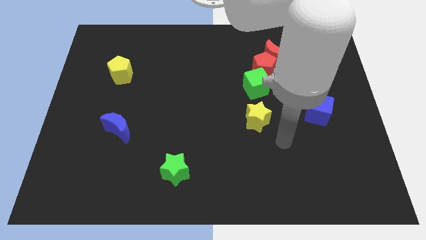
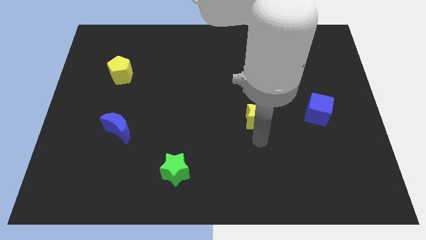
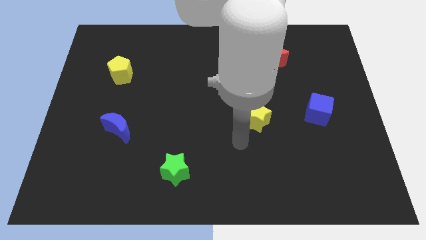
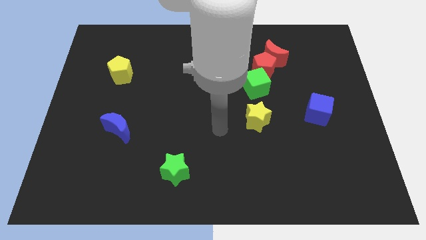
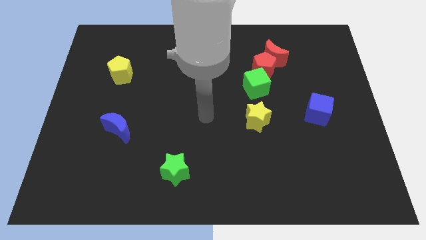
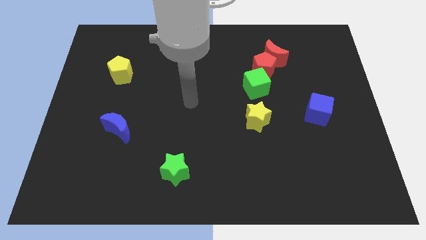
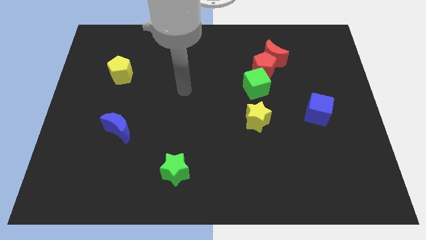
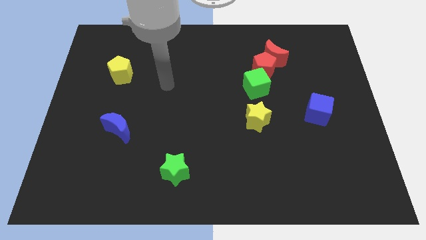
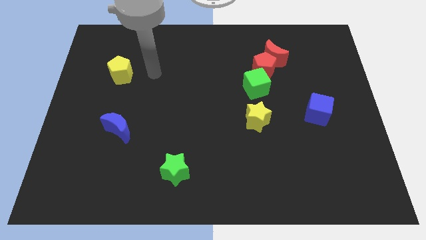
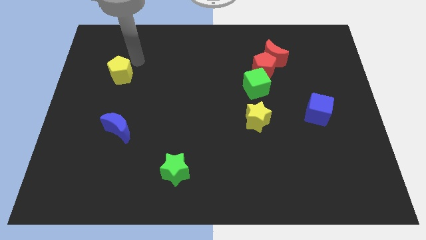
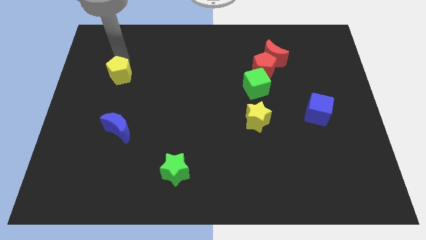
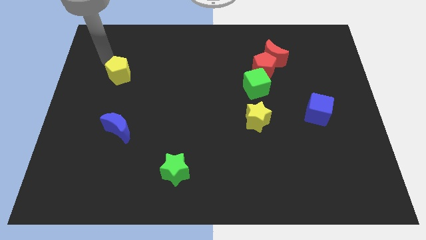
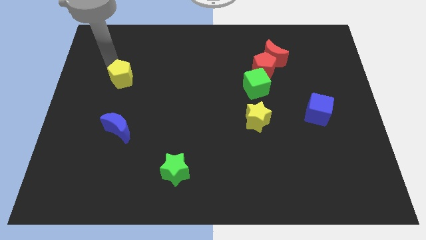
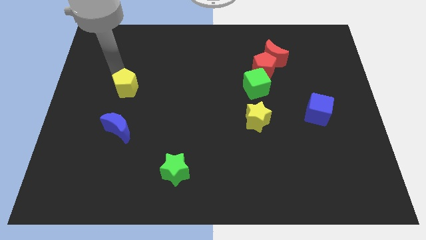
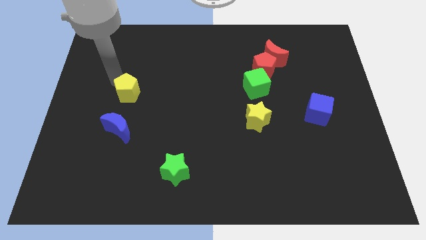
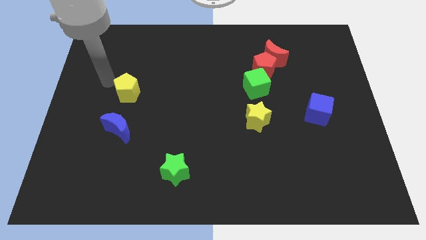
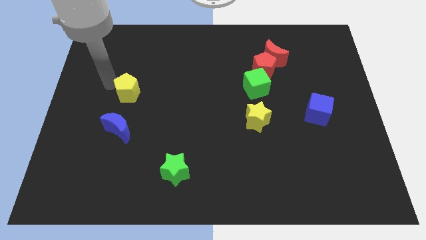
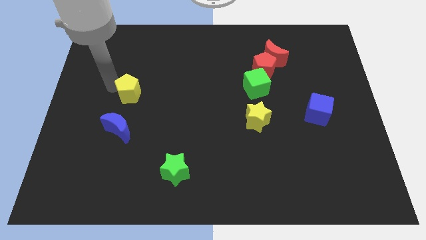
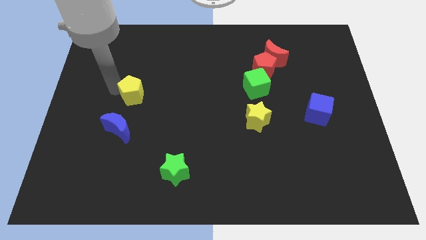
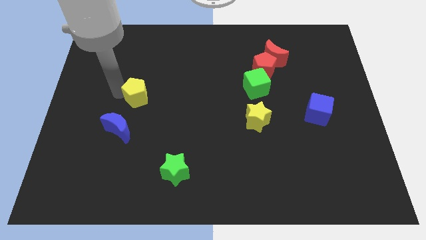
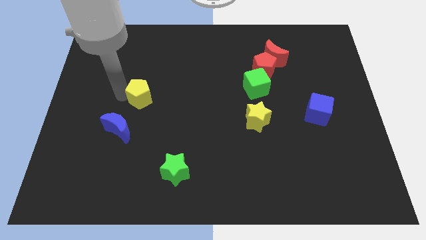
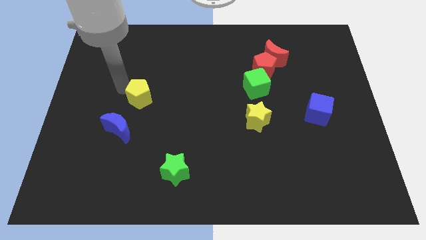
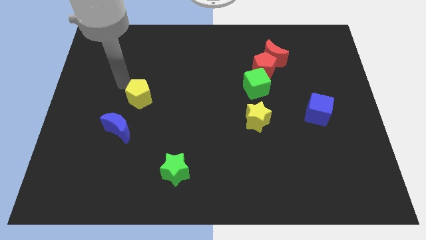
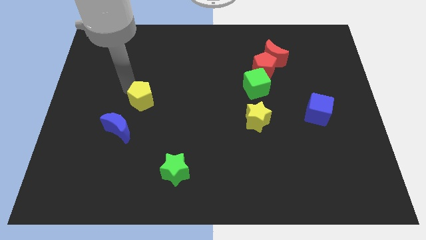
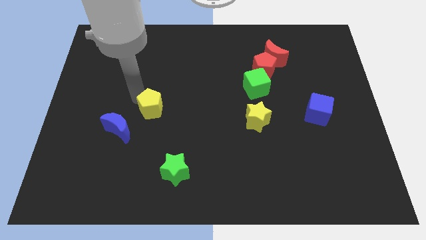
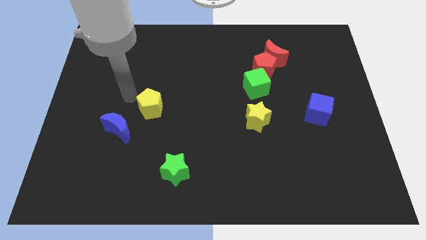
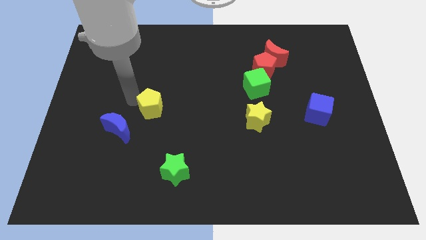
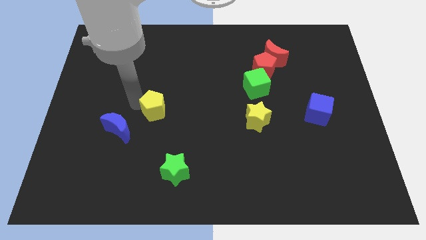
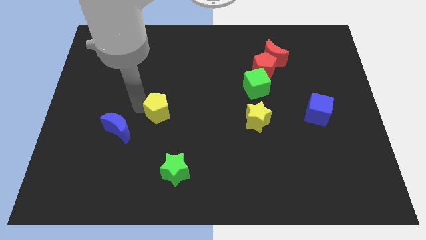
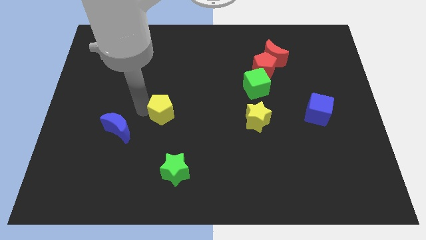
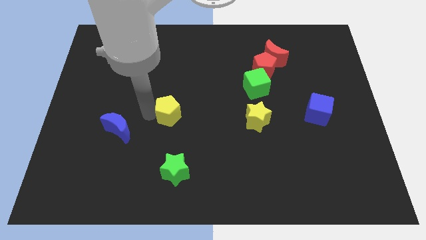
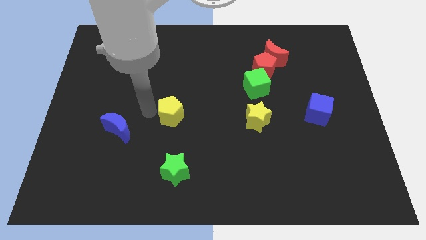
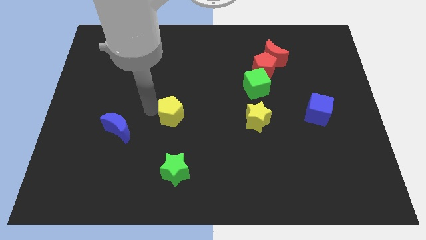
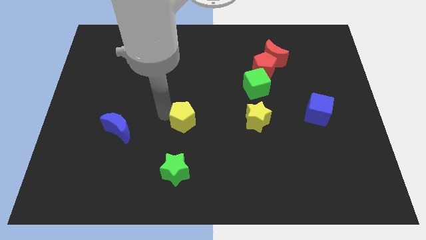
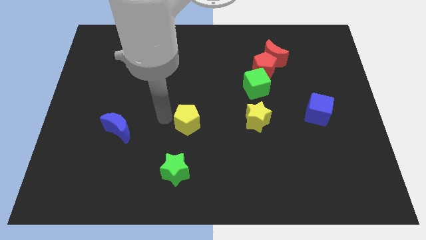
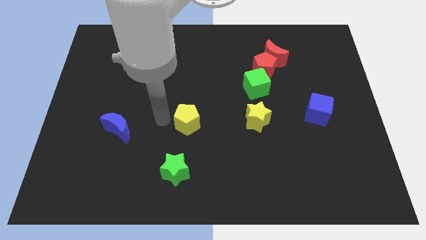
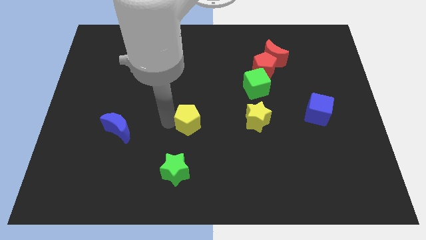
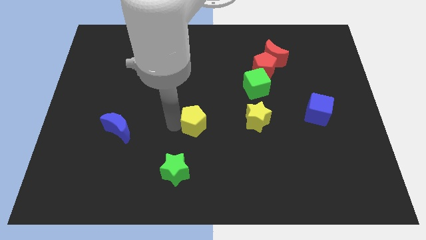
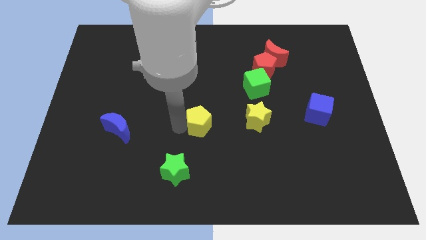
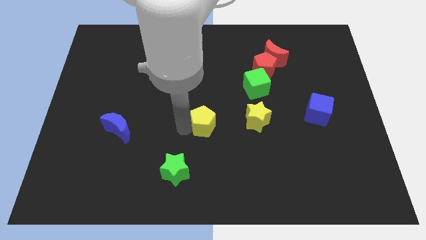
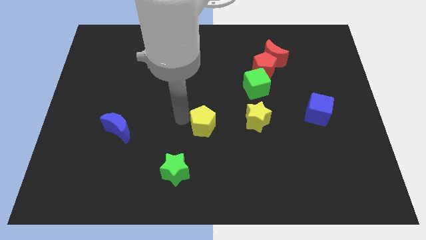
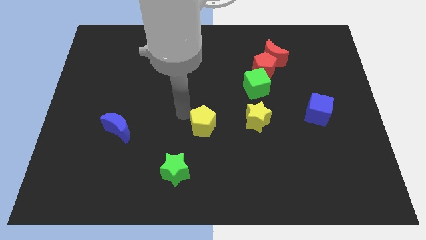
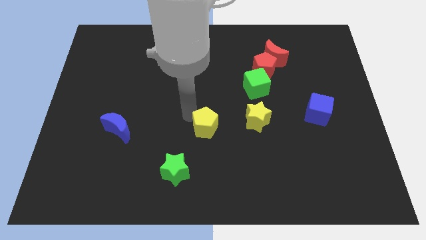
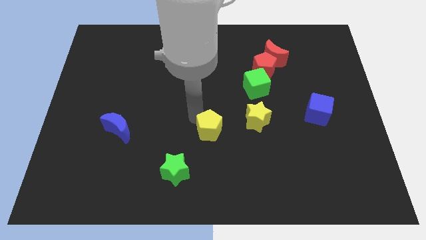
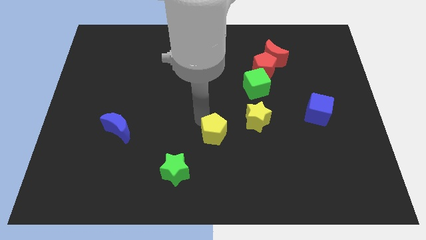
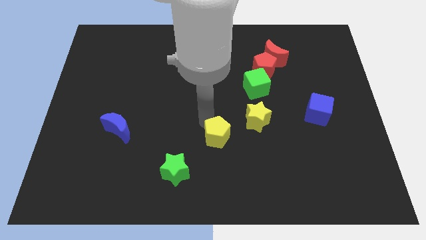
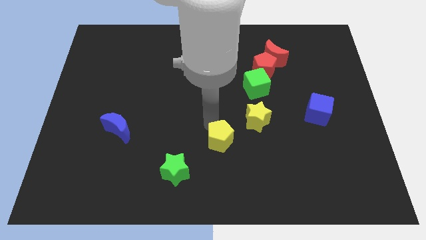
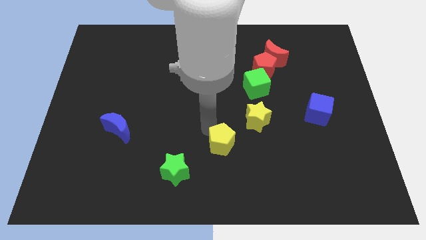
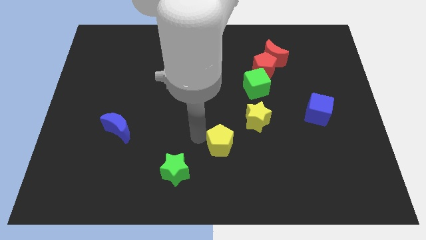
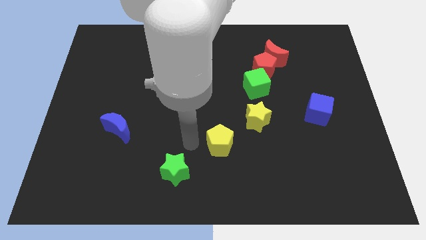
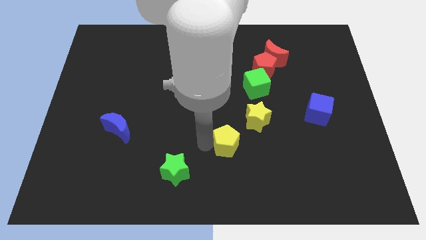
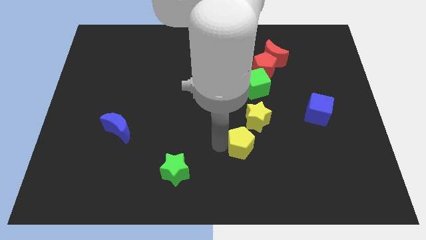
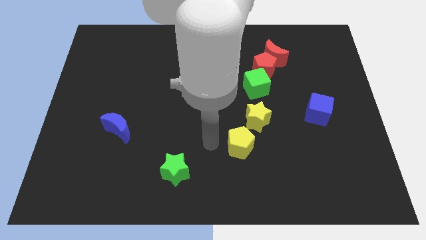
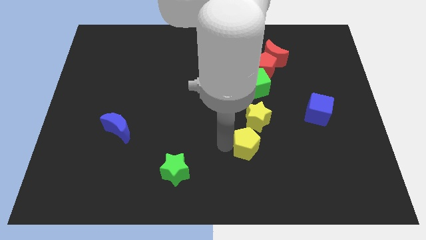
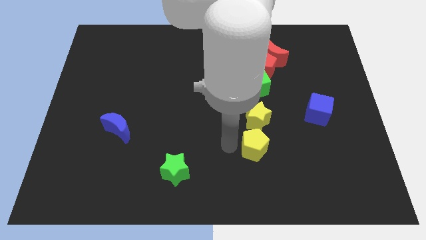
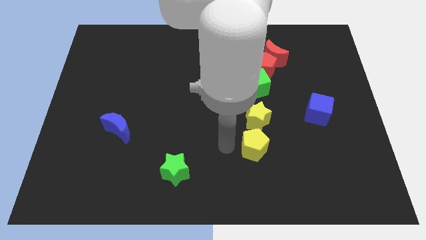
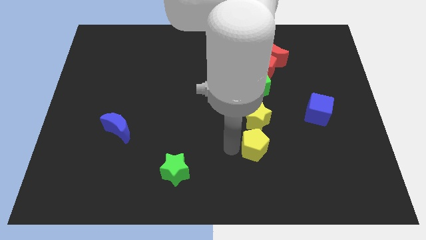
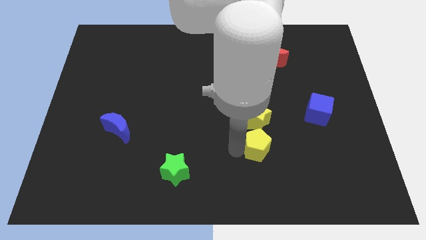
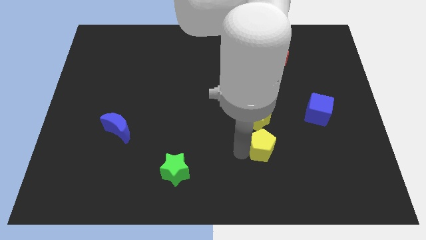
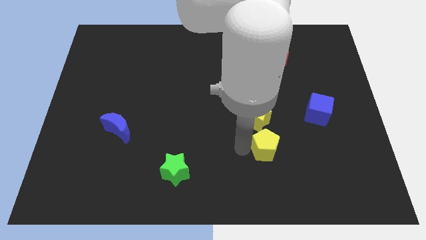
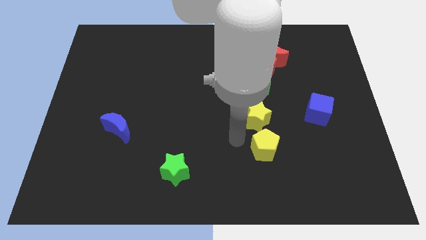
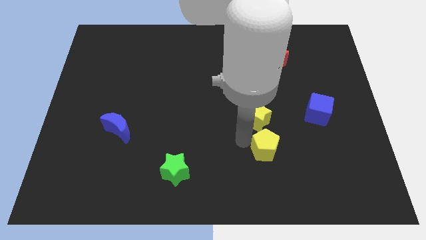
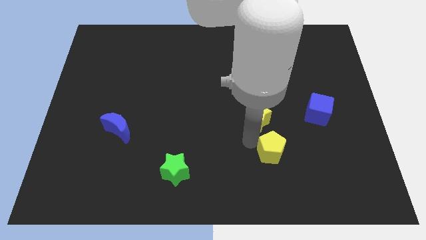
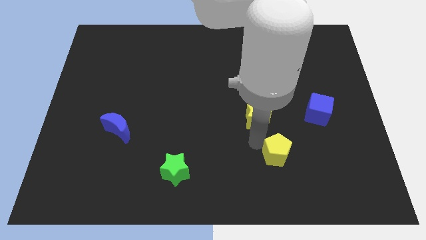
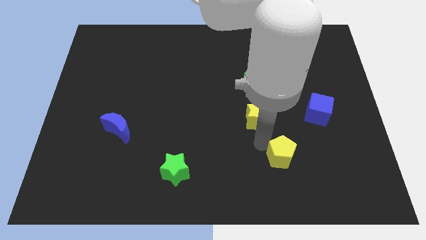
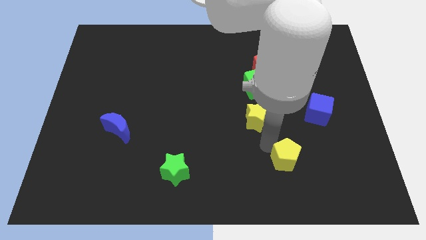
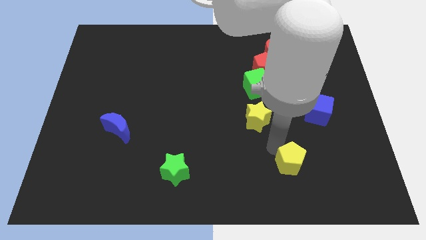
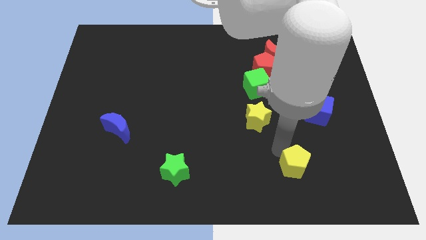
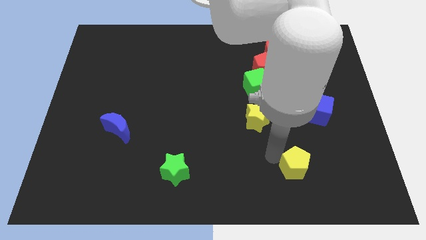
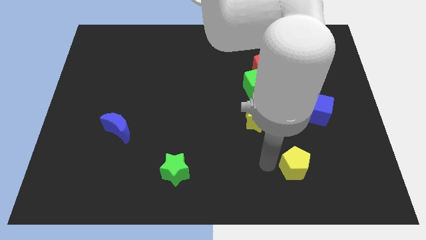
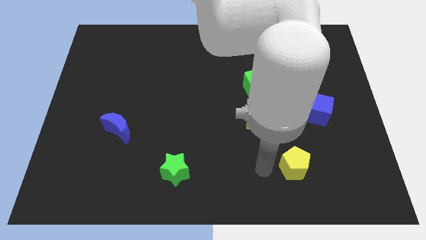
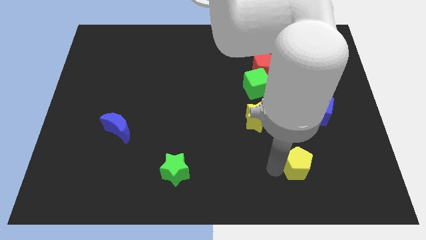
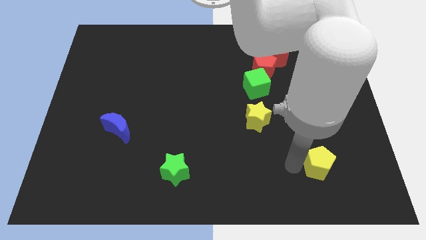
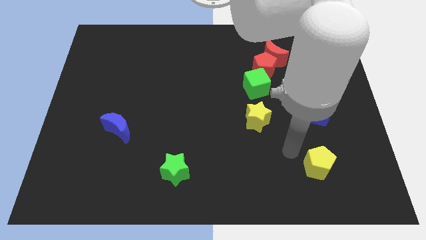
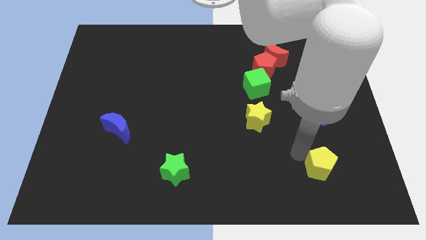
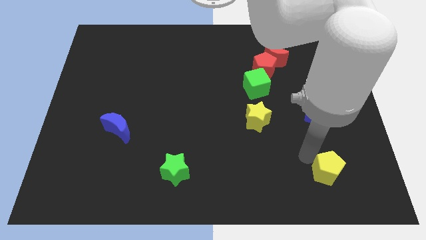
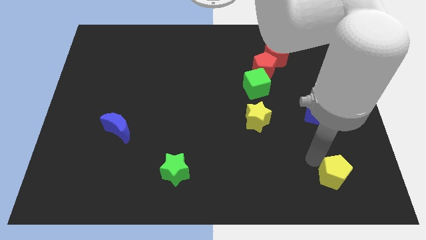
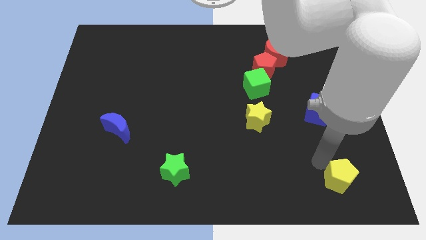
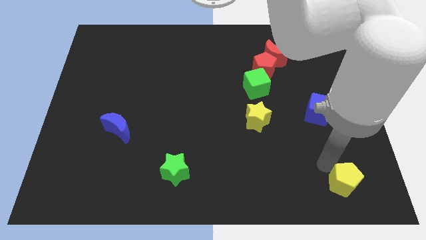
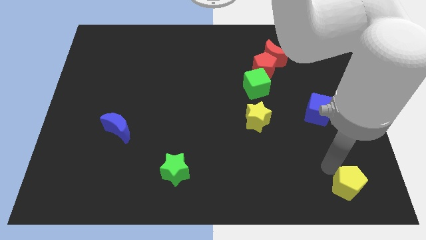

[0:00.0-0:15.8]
push the yellow pentagon to the lower right corner
